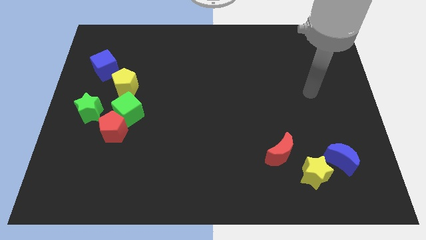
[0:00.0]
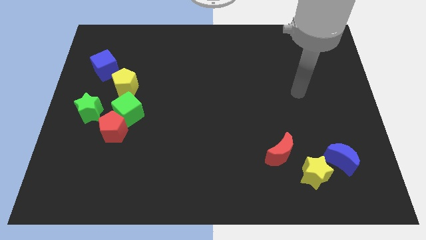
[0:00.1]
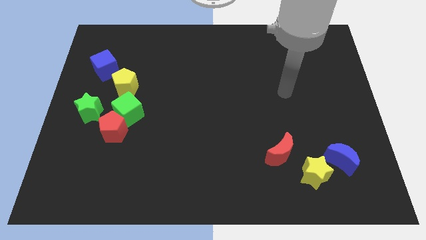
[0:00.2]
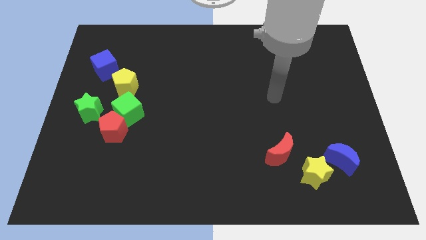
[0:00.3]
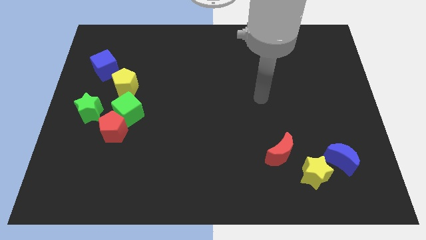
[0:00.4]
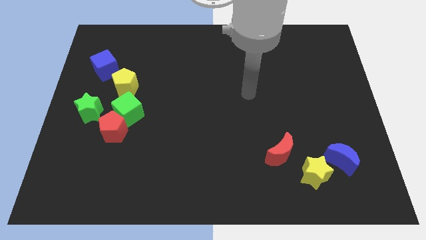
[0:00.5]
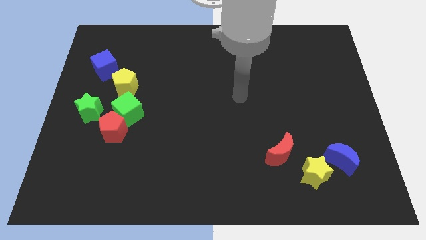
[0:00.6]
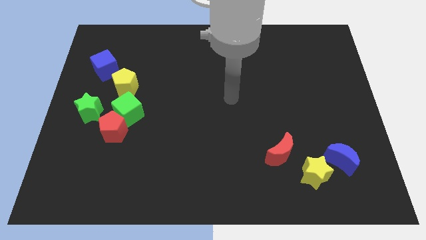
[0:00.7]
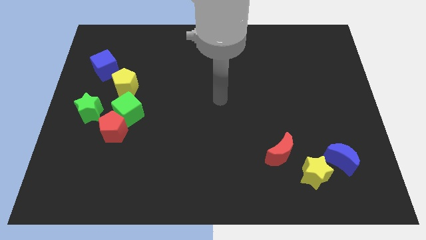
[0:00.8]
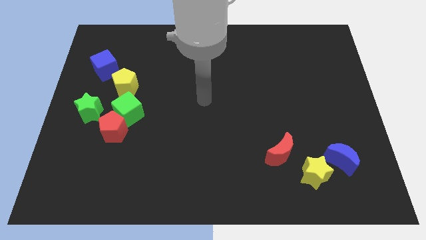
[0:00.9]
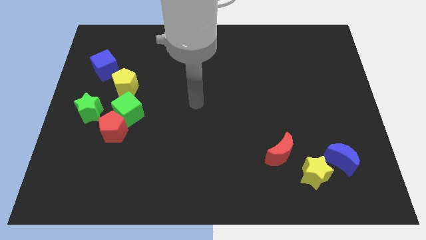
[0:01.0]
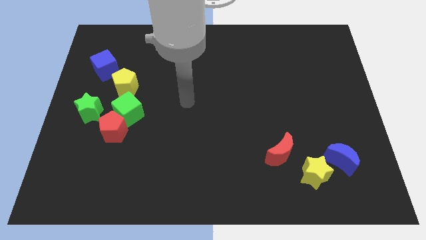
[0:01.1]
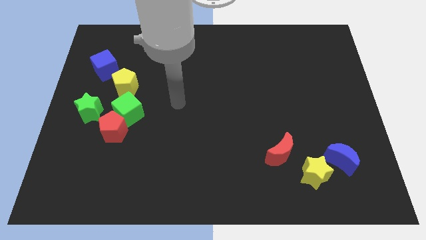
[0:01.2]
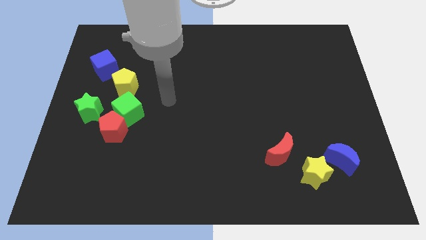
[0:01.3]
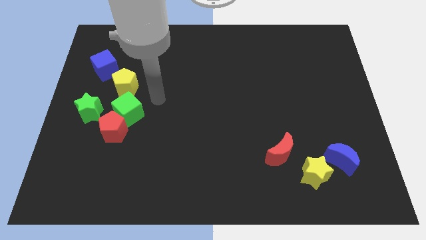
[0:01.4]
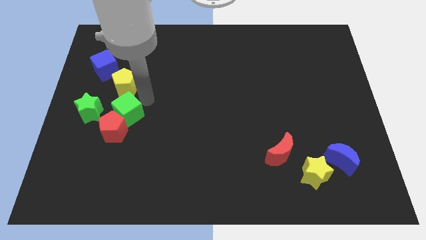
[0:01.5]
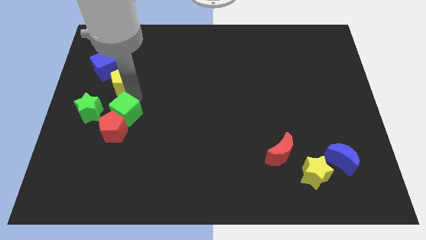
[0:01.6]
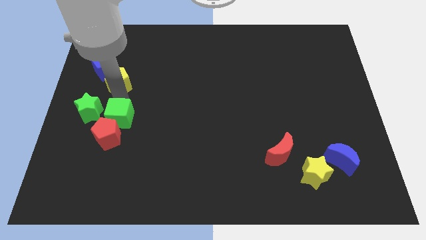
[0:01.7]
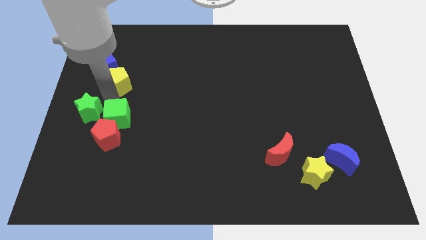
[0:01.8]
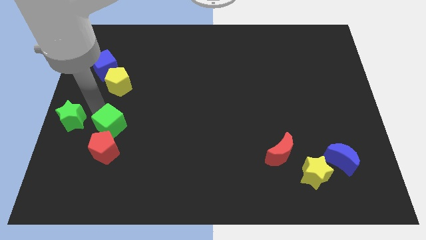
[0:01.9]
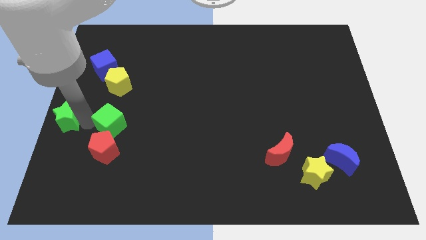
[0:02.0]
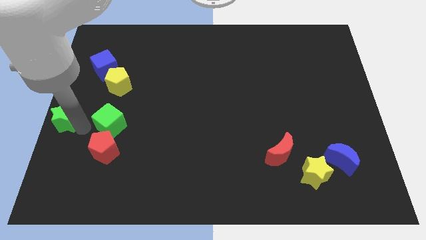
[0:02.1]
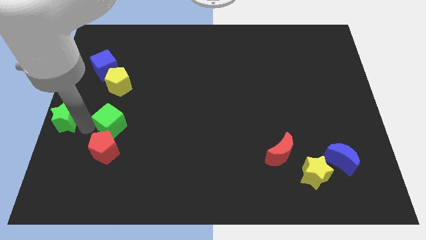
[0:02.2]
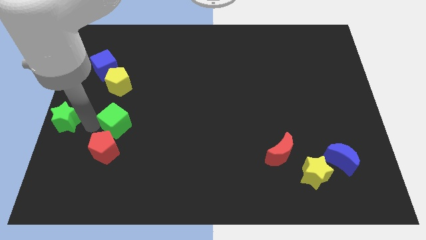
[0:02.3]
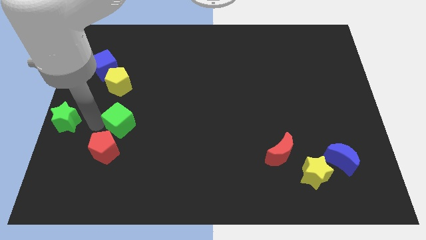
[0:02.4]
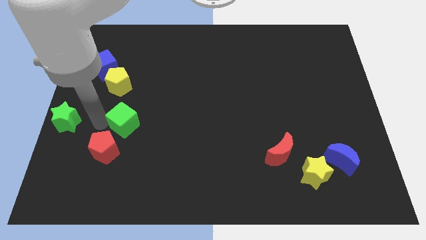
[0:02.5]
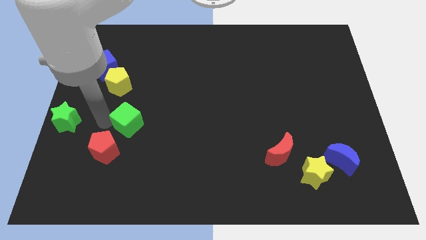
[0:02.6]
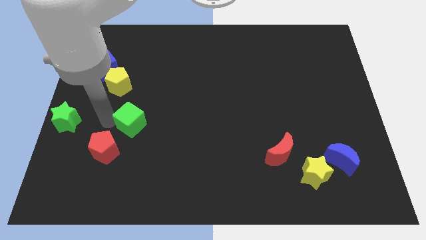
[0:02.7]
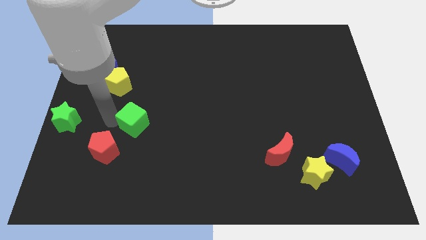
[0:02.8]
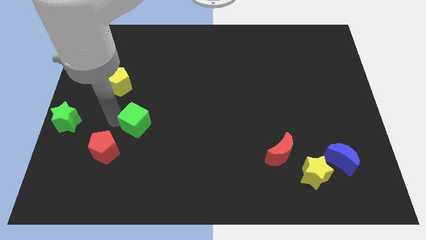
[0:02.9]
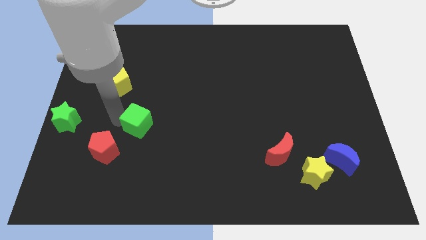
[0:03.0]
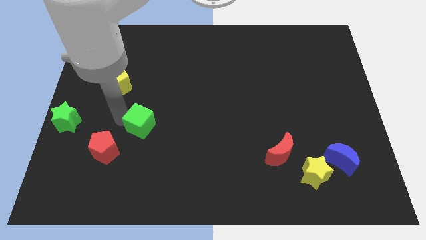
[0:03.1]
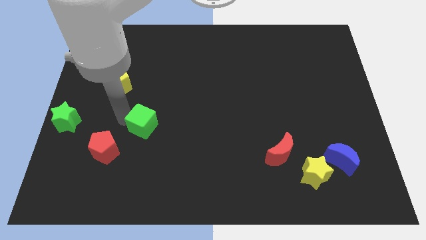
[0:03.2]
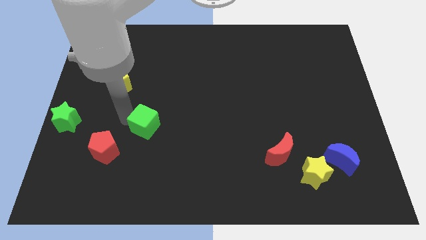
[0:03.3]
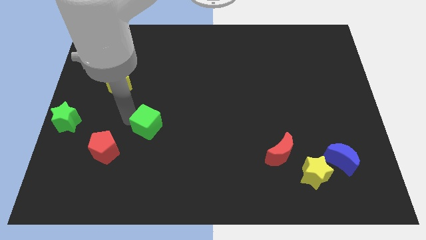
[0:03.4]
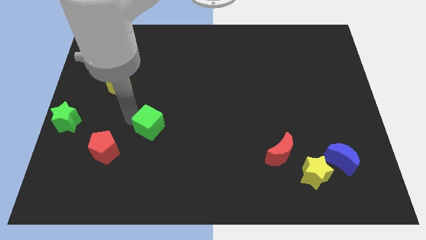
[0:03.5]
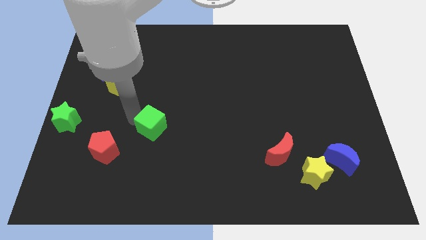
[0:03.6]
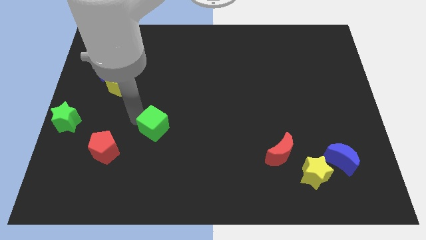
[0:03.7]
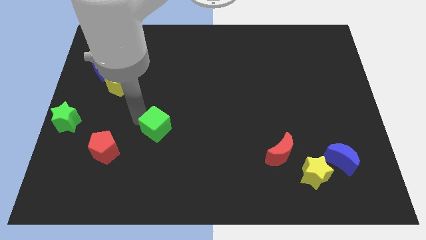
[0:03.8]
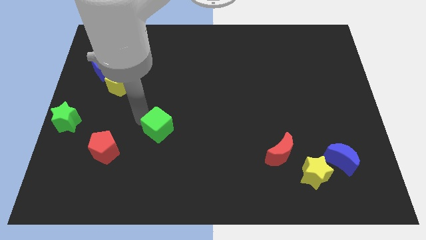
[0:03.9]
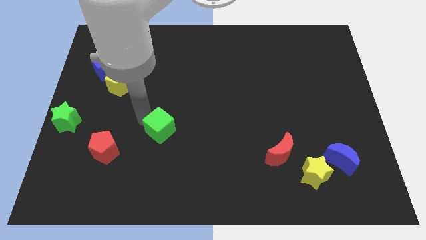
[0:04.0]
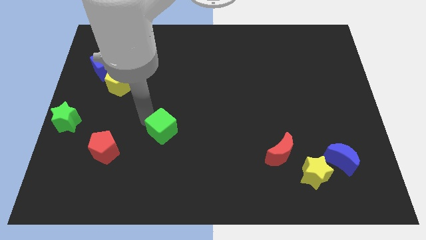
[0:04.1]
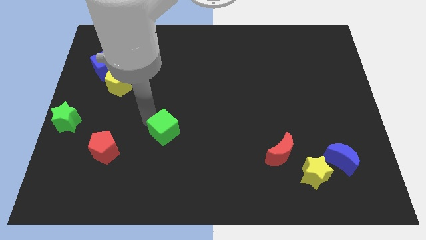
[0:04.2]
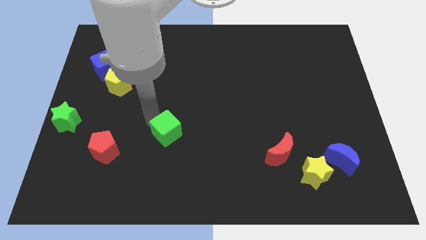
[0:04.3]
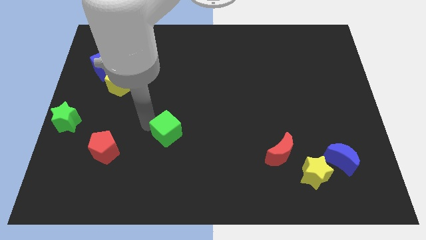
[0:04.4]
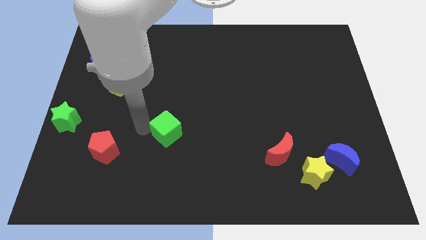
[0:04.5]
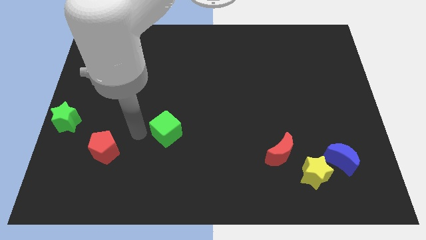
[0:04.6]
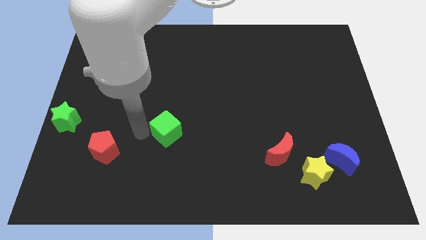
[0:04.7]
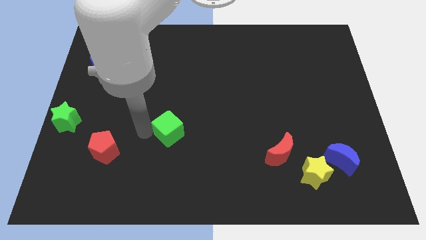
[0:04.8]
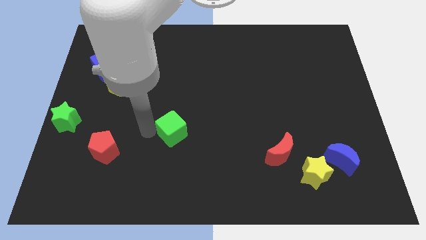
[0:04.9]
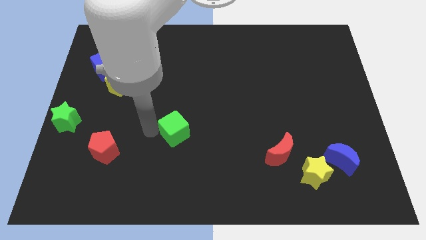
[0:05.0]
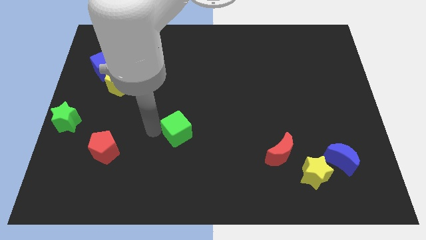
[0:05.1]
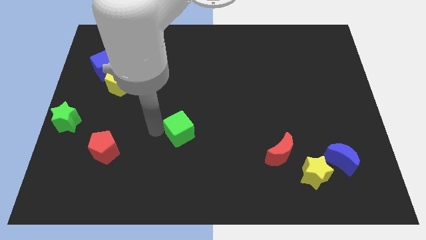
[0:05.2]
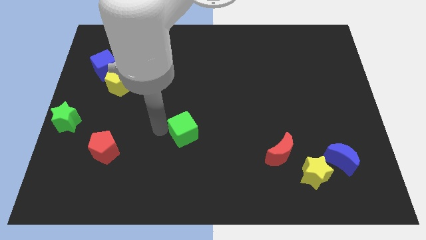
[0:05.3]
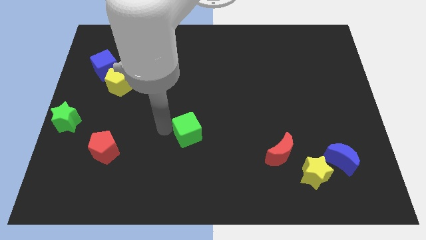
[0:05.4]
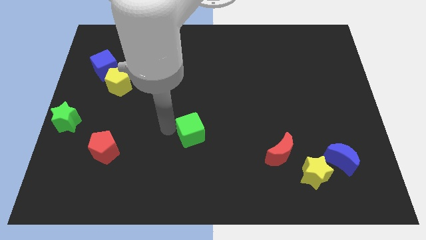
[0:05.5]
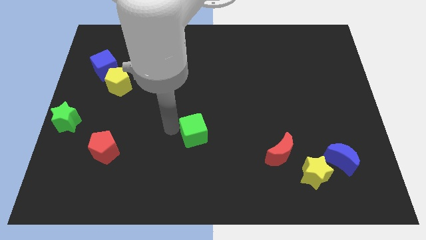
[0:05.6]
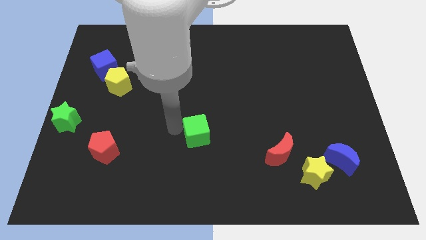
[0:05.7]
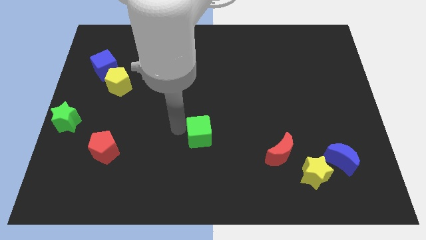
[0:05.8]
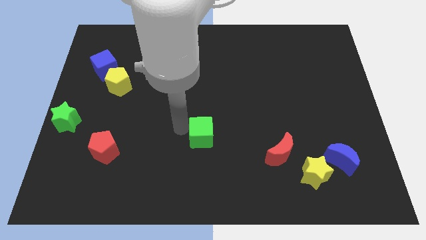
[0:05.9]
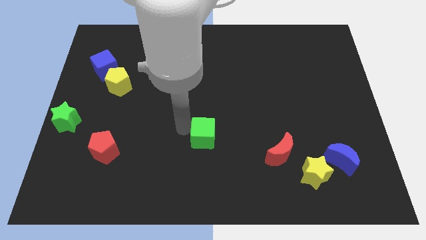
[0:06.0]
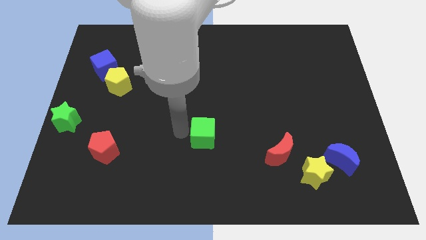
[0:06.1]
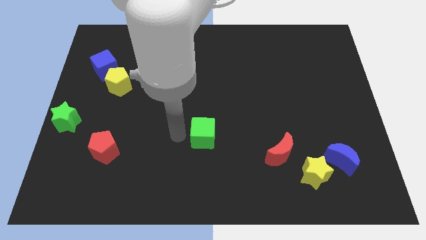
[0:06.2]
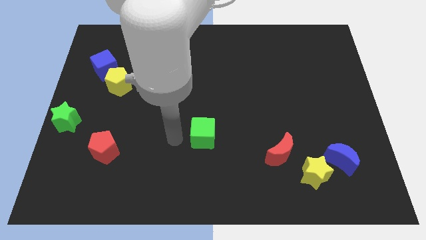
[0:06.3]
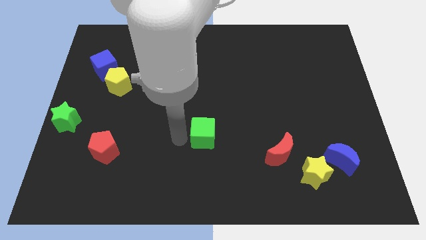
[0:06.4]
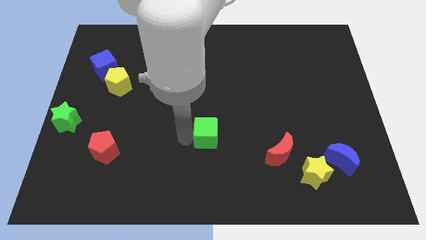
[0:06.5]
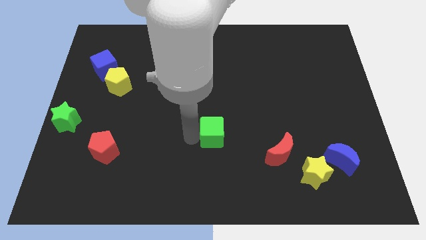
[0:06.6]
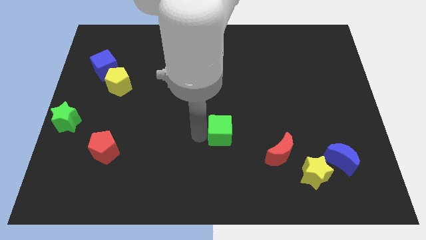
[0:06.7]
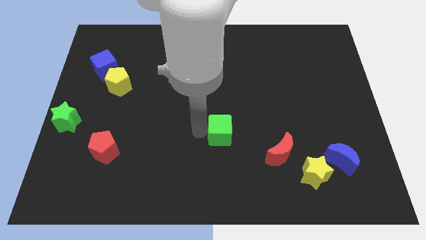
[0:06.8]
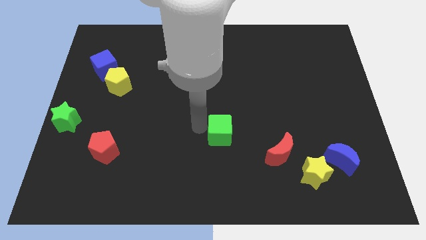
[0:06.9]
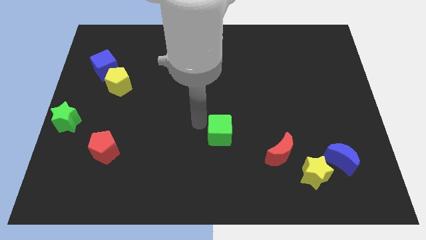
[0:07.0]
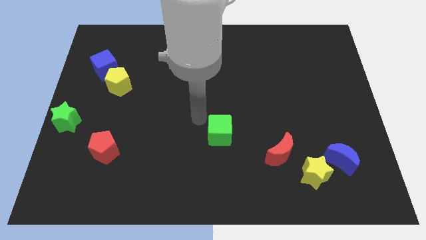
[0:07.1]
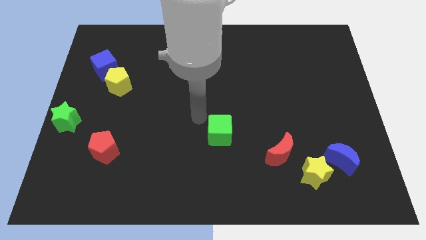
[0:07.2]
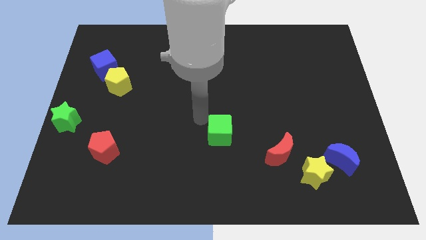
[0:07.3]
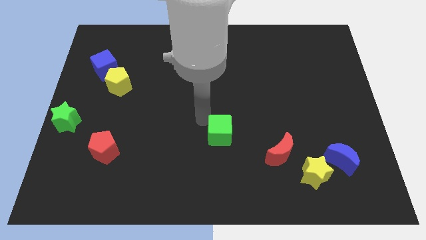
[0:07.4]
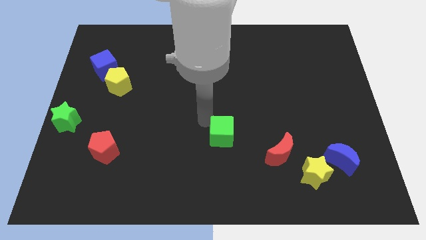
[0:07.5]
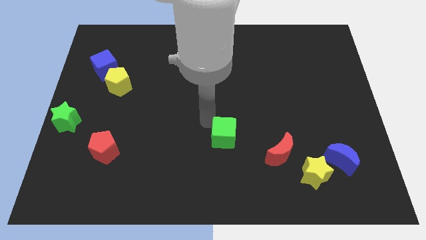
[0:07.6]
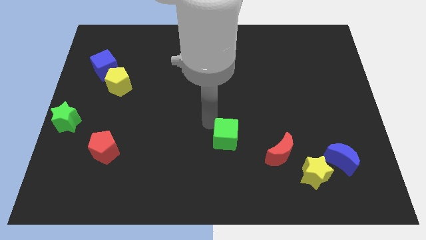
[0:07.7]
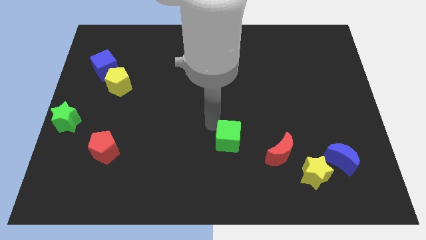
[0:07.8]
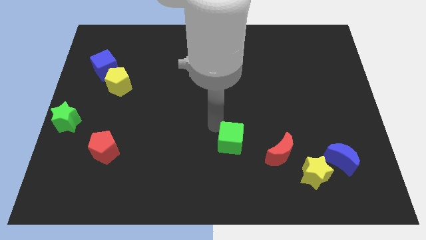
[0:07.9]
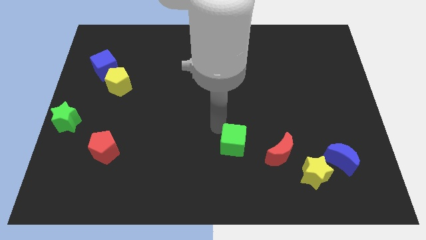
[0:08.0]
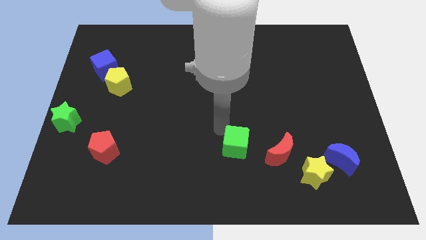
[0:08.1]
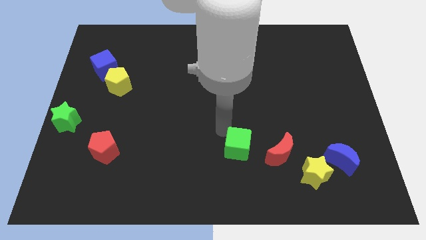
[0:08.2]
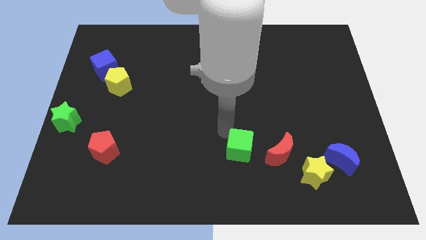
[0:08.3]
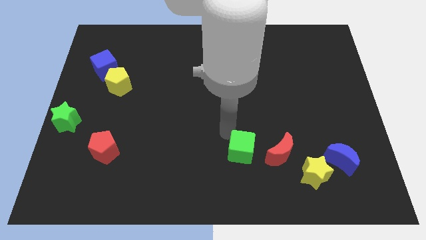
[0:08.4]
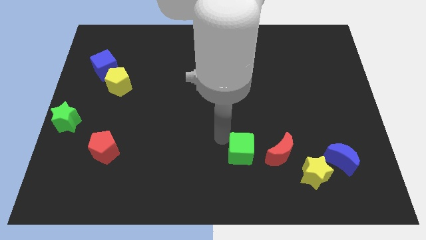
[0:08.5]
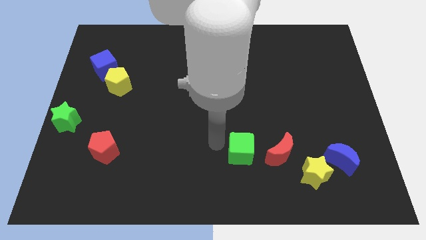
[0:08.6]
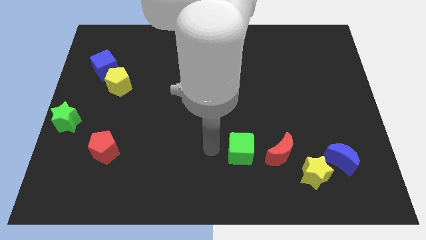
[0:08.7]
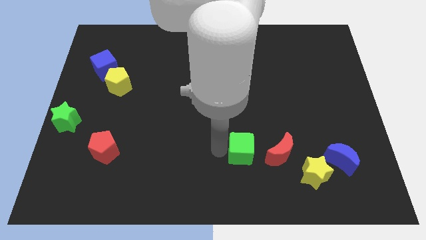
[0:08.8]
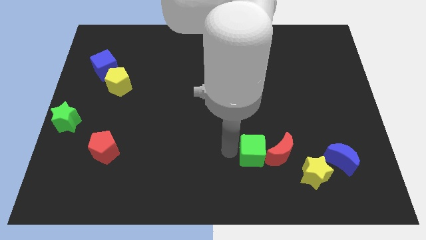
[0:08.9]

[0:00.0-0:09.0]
push the green cube next to the red moon
